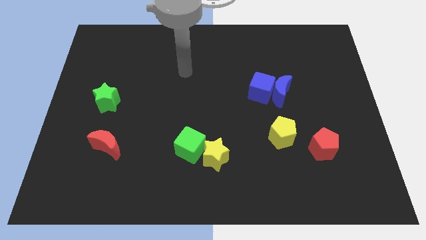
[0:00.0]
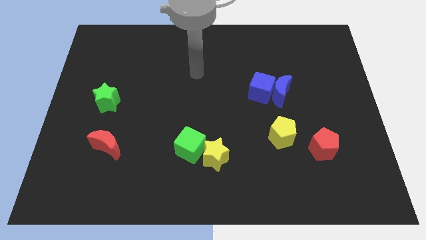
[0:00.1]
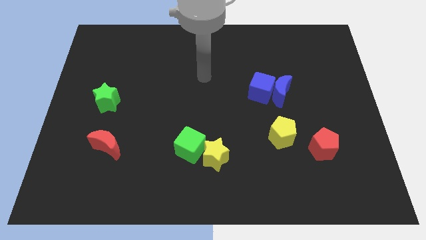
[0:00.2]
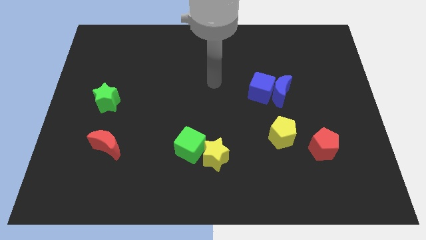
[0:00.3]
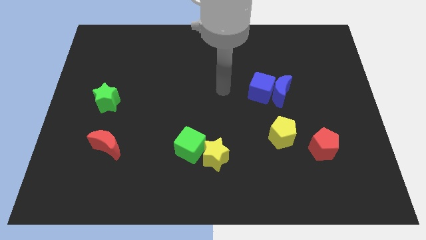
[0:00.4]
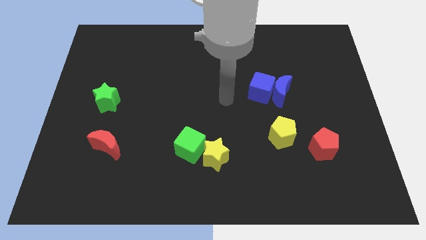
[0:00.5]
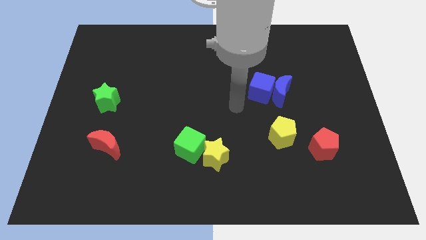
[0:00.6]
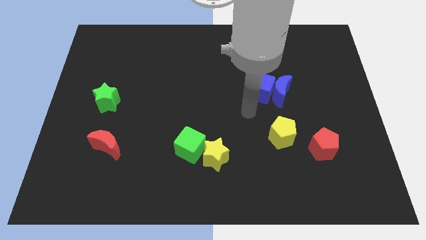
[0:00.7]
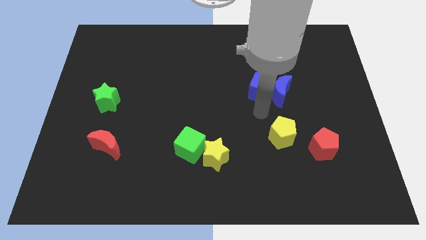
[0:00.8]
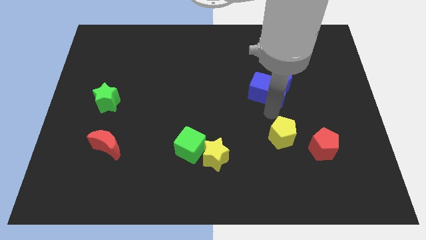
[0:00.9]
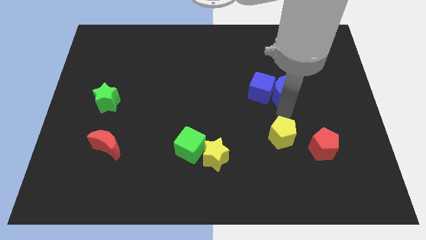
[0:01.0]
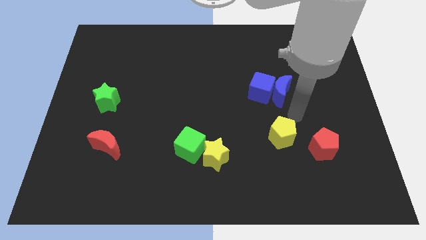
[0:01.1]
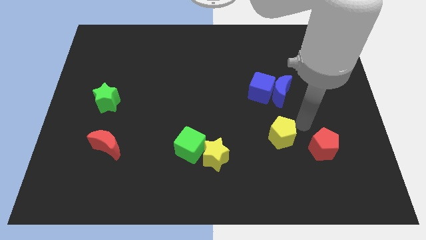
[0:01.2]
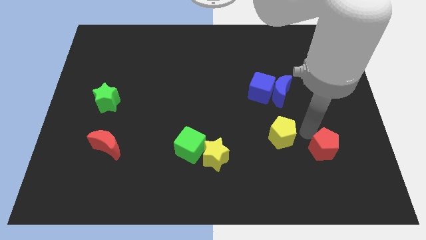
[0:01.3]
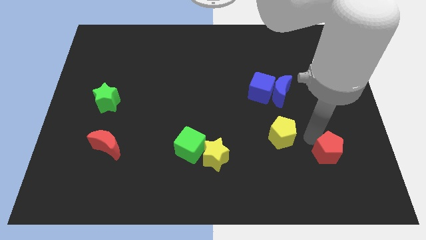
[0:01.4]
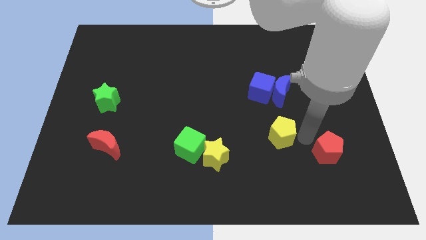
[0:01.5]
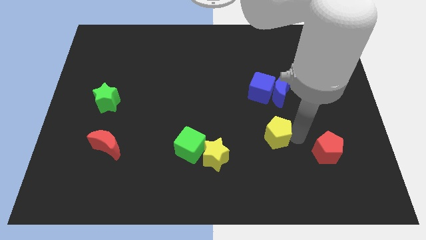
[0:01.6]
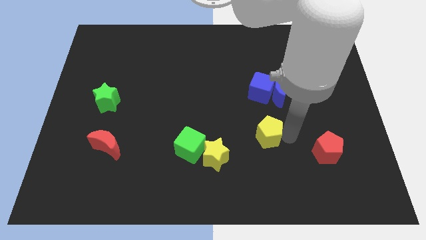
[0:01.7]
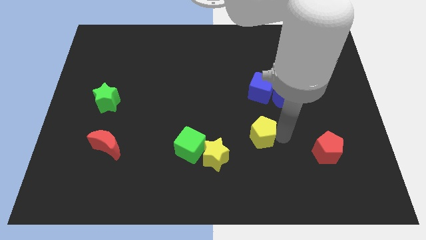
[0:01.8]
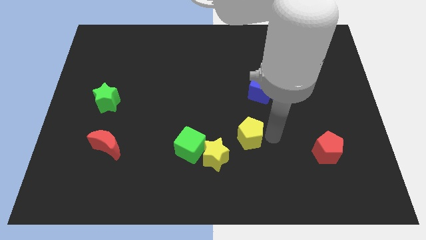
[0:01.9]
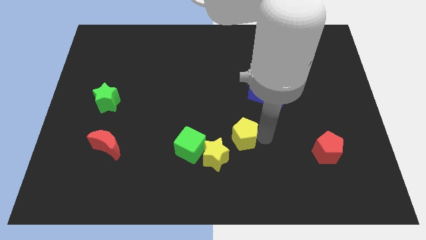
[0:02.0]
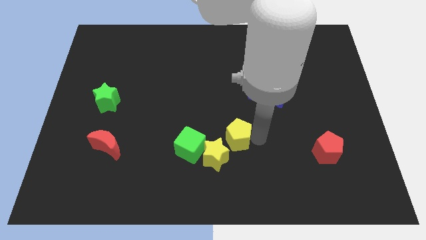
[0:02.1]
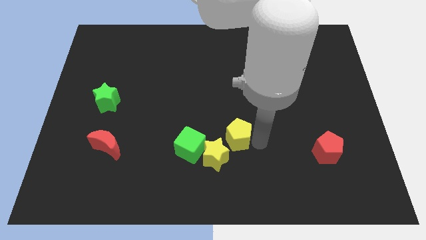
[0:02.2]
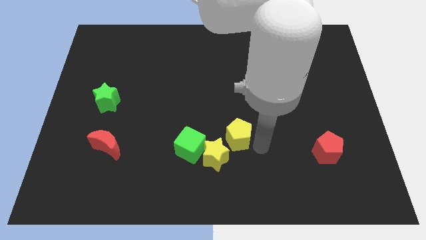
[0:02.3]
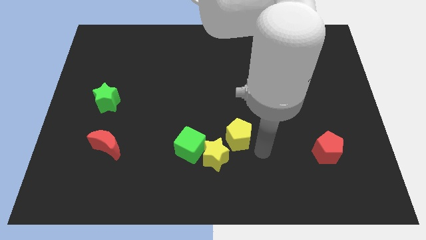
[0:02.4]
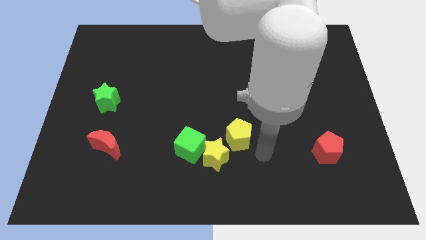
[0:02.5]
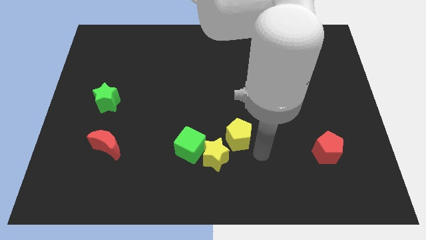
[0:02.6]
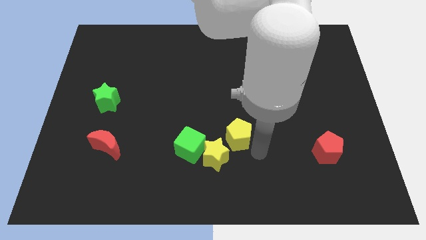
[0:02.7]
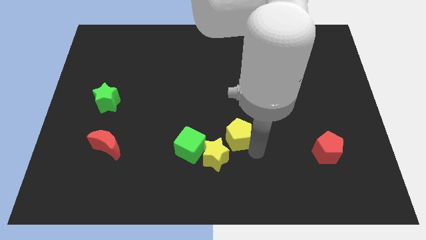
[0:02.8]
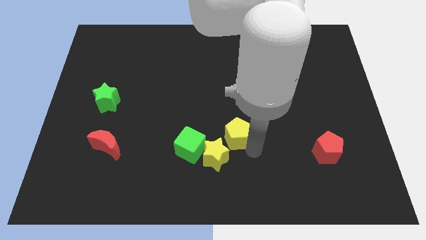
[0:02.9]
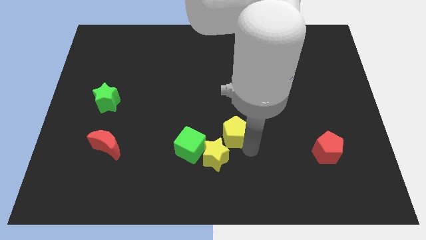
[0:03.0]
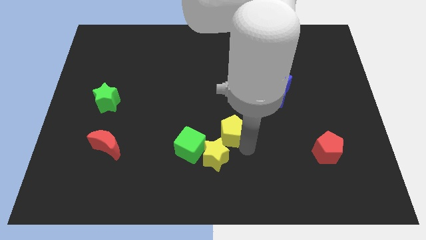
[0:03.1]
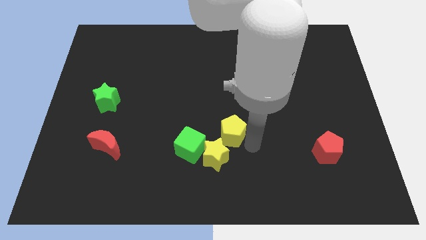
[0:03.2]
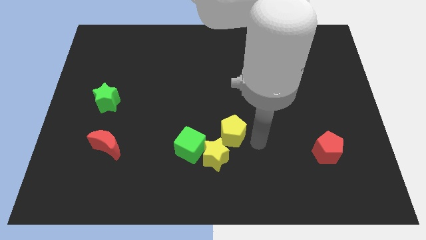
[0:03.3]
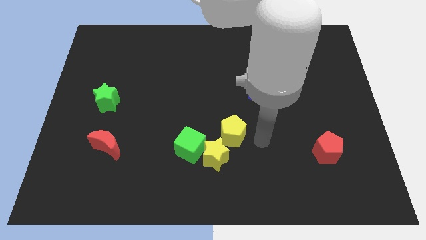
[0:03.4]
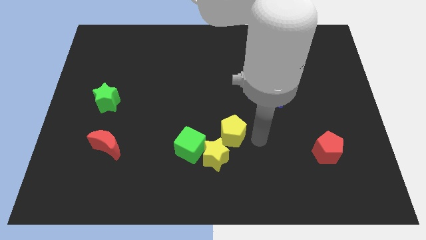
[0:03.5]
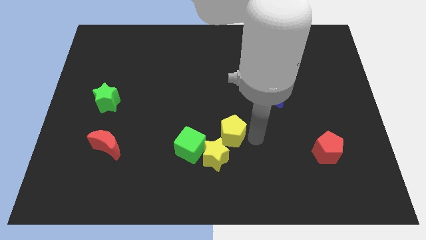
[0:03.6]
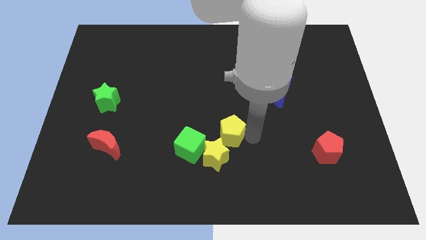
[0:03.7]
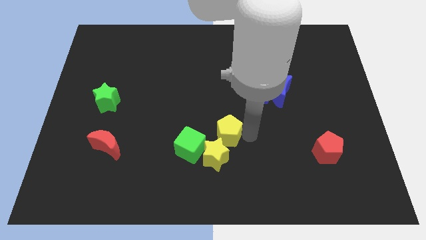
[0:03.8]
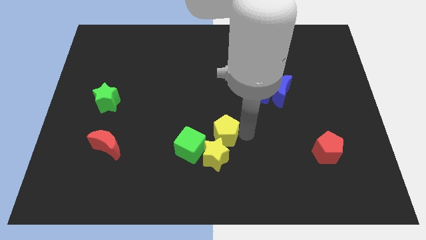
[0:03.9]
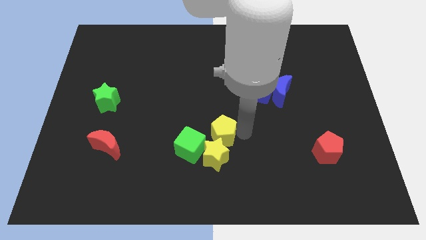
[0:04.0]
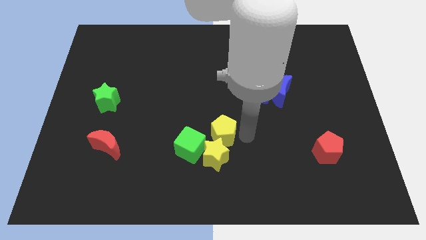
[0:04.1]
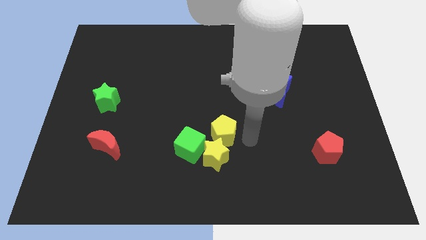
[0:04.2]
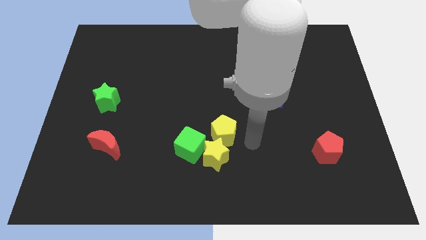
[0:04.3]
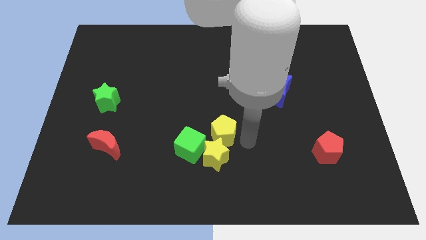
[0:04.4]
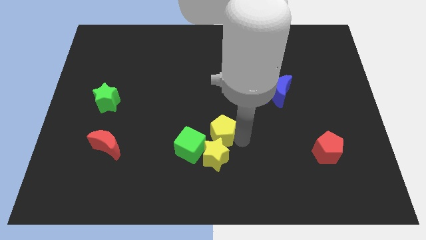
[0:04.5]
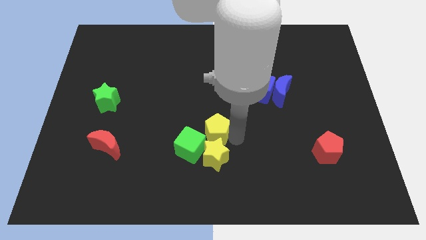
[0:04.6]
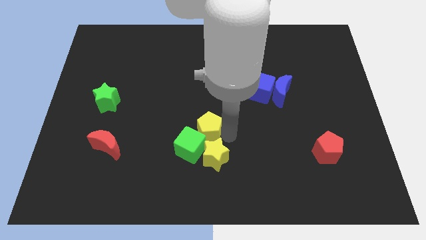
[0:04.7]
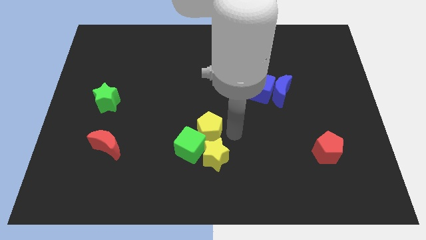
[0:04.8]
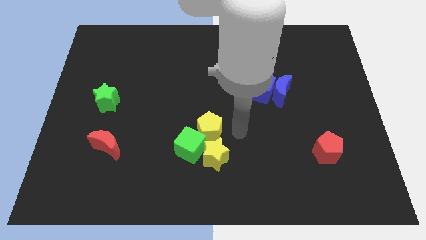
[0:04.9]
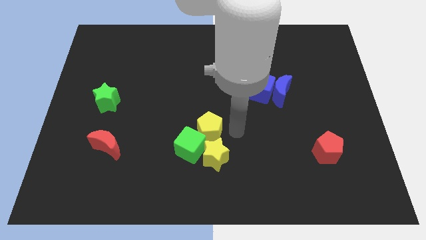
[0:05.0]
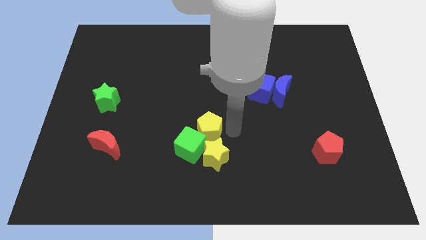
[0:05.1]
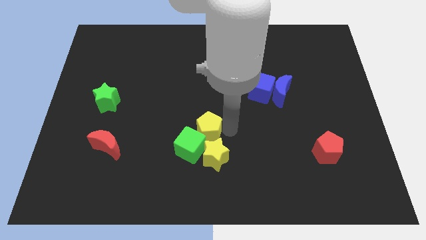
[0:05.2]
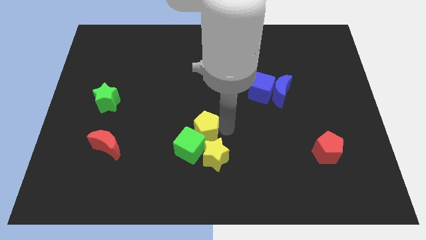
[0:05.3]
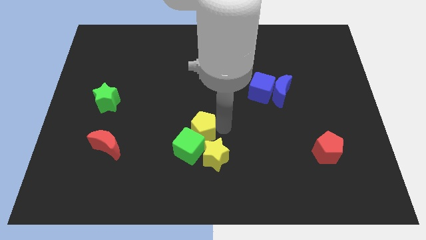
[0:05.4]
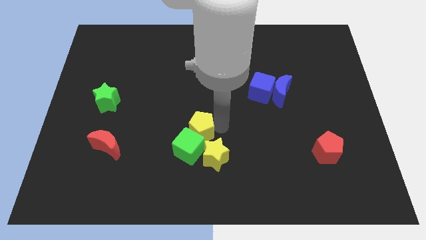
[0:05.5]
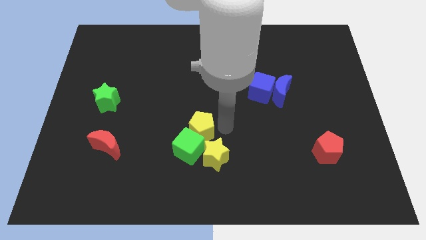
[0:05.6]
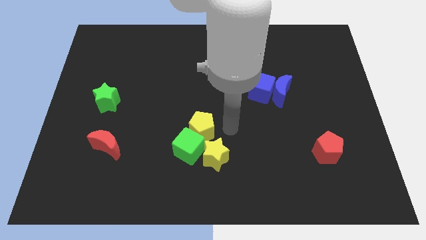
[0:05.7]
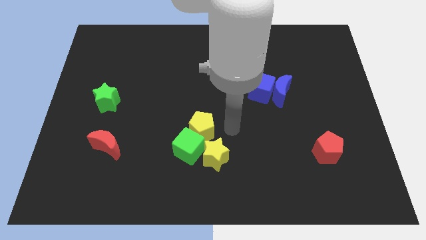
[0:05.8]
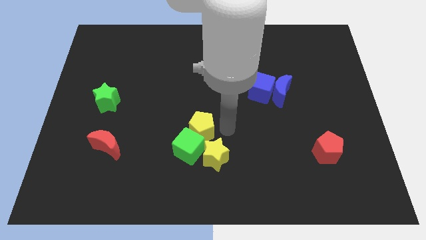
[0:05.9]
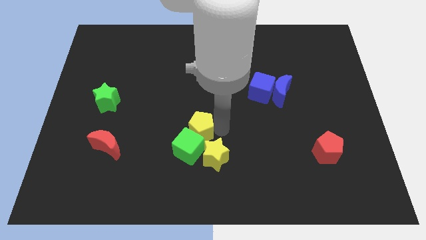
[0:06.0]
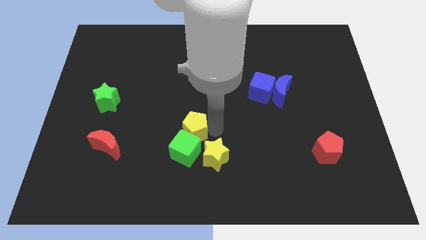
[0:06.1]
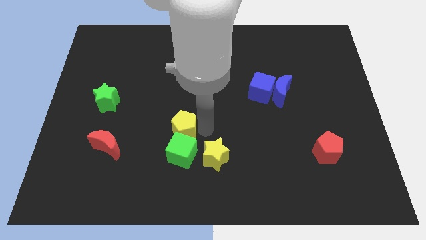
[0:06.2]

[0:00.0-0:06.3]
push the yellow pentagon to the left

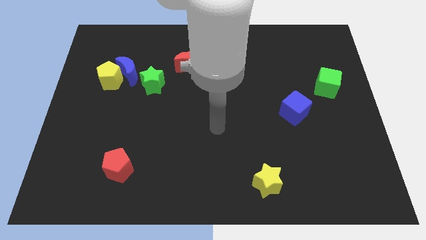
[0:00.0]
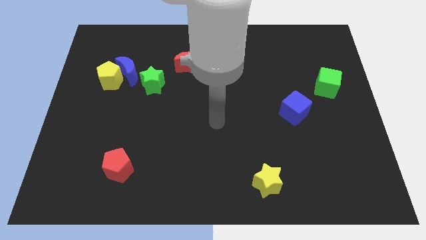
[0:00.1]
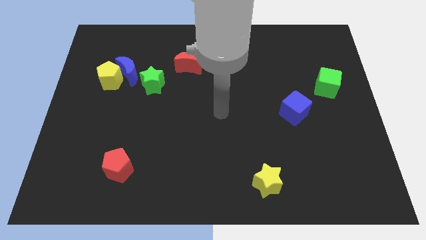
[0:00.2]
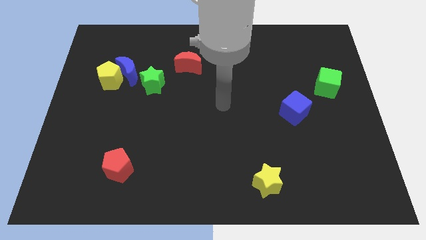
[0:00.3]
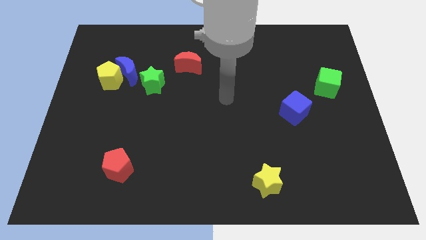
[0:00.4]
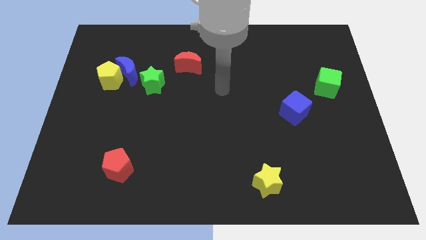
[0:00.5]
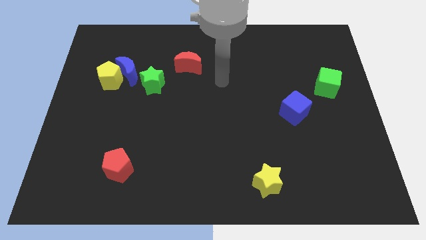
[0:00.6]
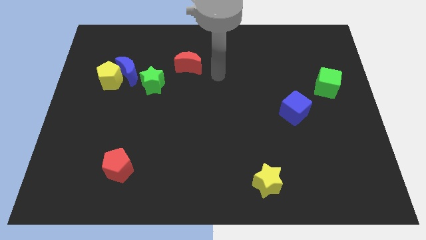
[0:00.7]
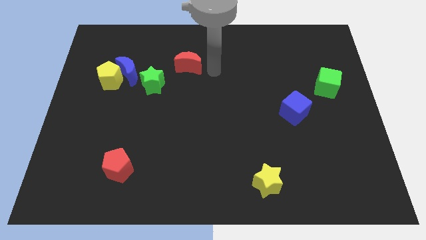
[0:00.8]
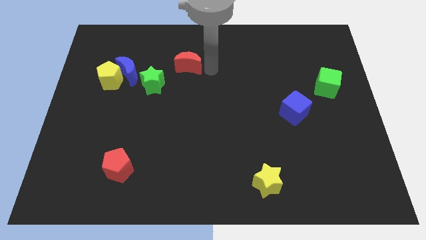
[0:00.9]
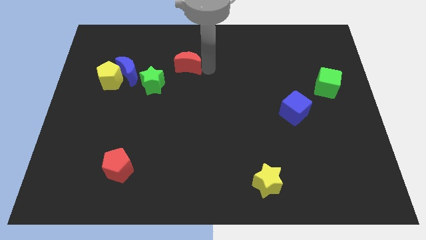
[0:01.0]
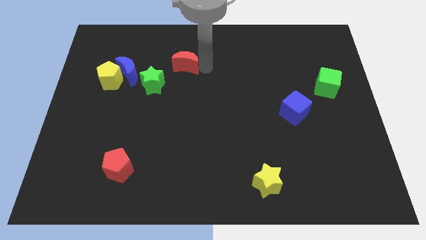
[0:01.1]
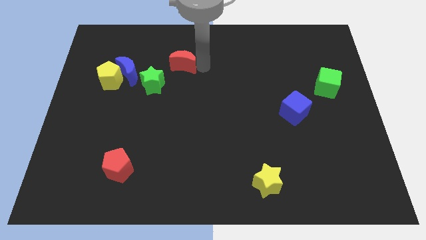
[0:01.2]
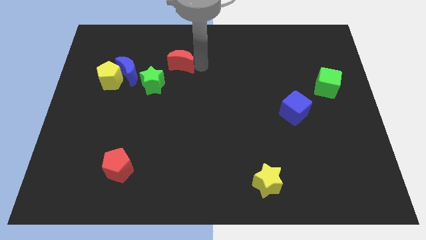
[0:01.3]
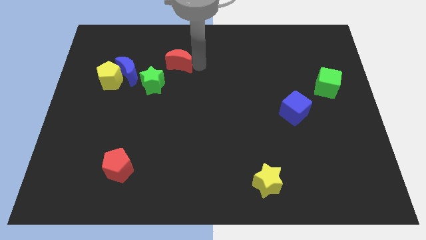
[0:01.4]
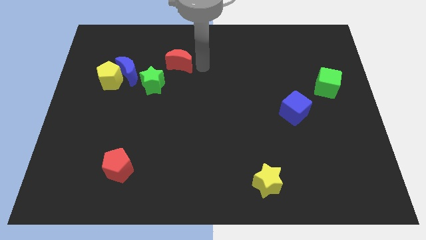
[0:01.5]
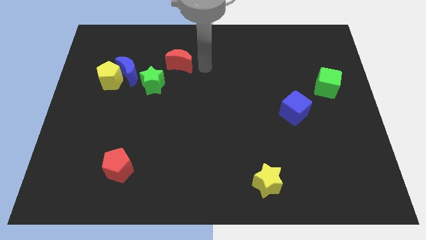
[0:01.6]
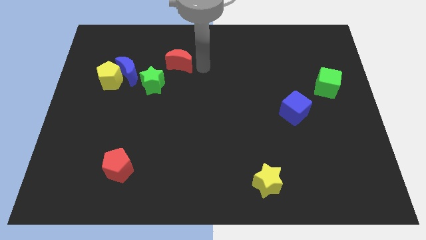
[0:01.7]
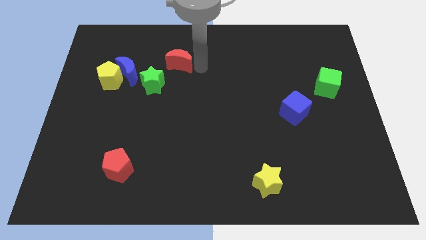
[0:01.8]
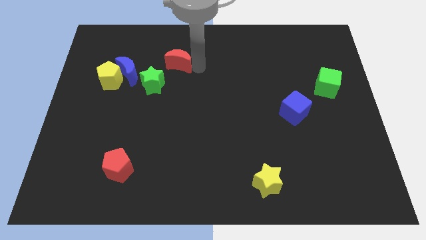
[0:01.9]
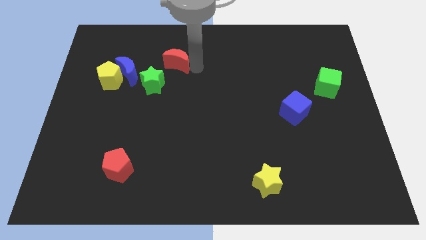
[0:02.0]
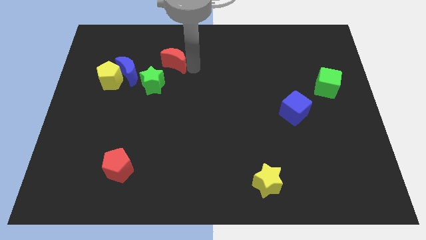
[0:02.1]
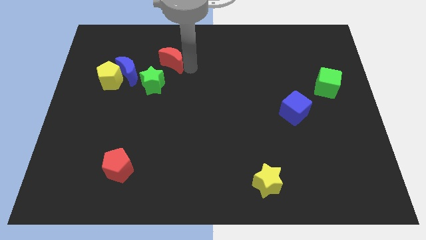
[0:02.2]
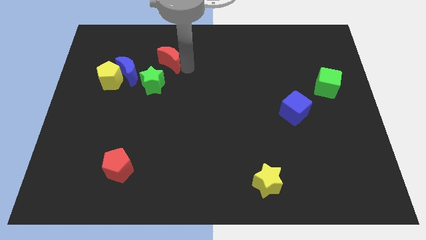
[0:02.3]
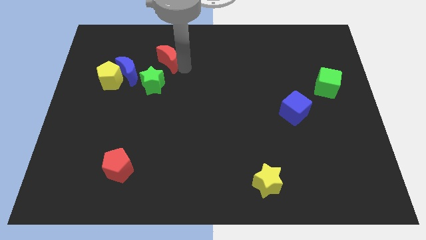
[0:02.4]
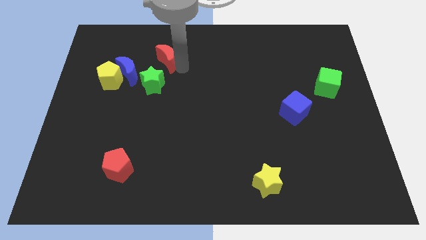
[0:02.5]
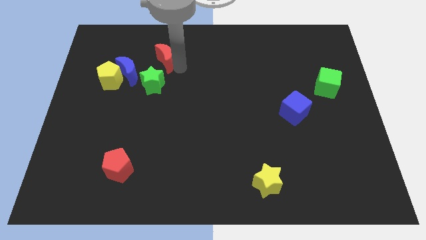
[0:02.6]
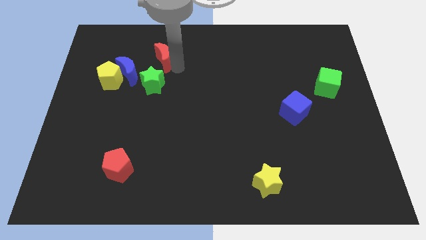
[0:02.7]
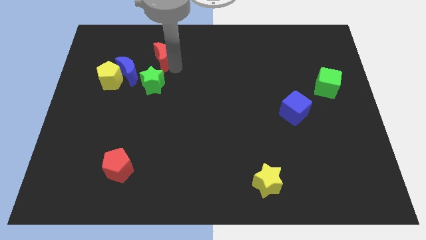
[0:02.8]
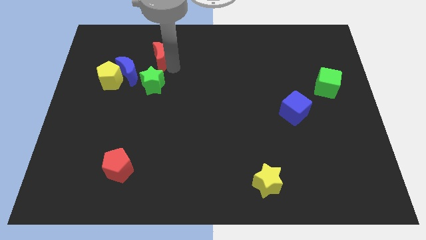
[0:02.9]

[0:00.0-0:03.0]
slightly slide the red moon left
